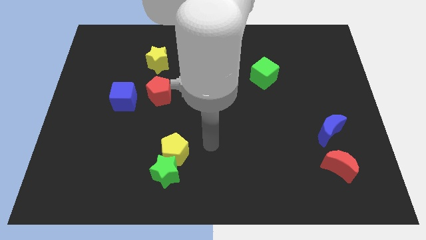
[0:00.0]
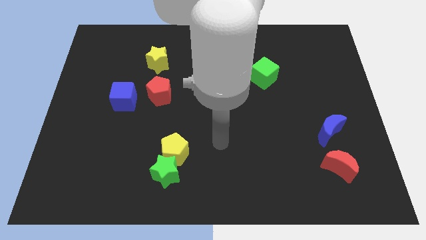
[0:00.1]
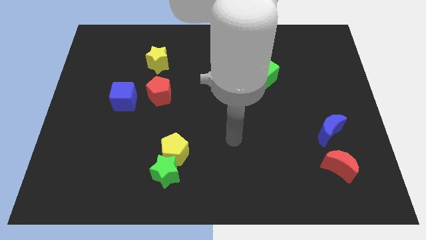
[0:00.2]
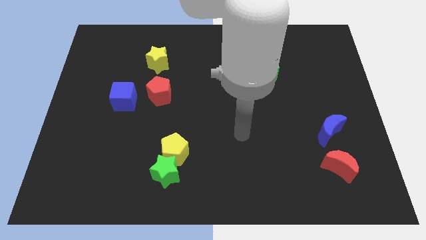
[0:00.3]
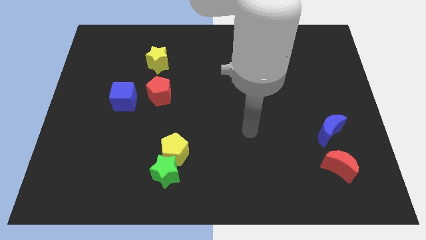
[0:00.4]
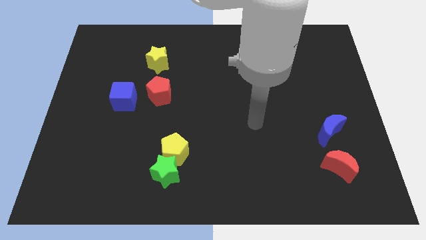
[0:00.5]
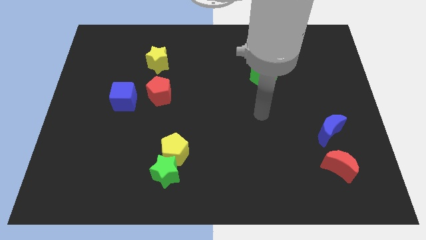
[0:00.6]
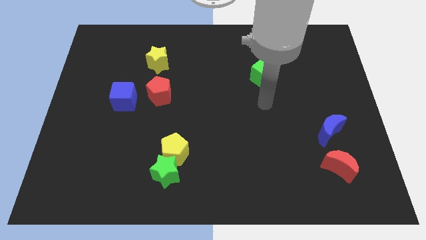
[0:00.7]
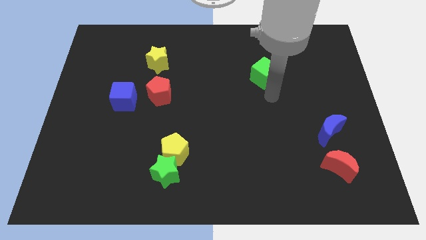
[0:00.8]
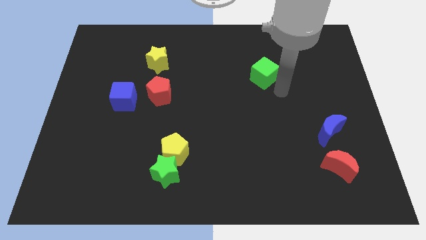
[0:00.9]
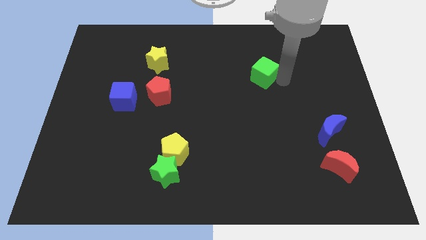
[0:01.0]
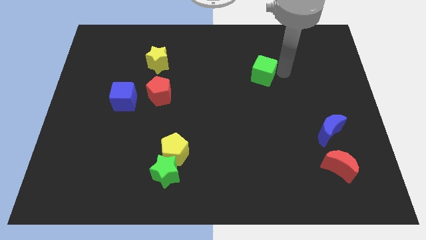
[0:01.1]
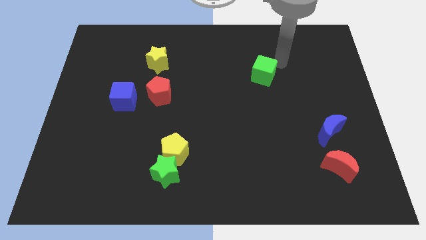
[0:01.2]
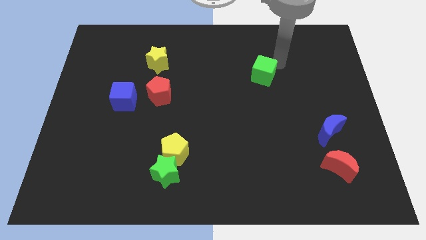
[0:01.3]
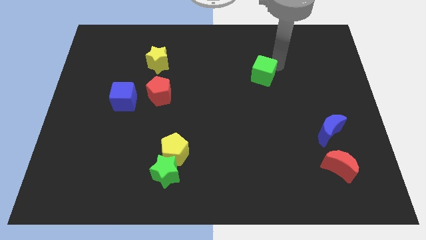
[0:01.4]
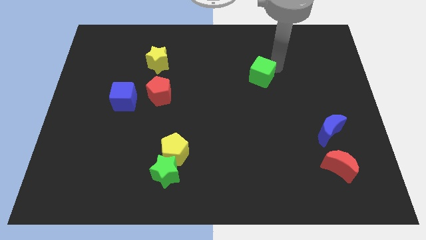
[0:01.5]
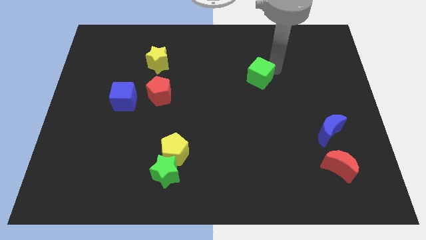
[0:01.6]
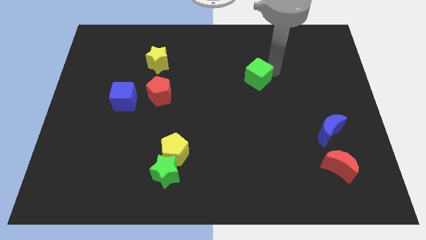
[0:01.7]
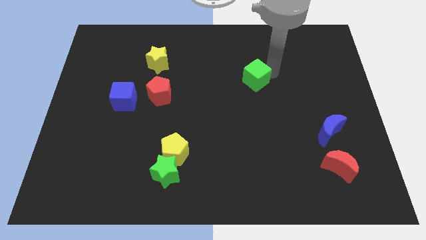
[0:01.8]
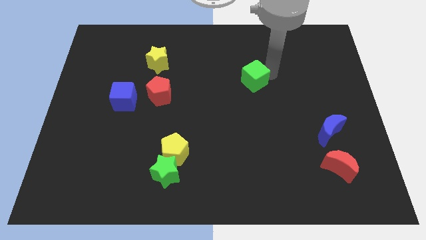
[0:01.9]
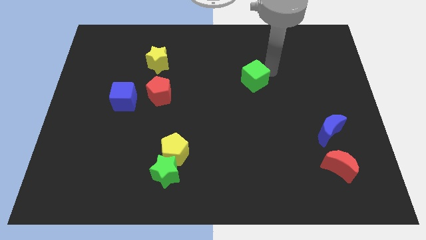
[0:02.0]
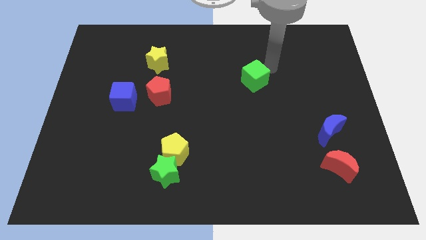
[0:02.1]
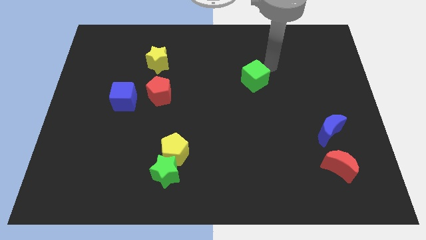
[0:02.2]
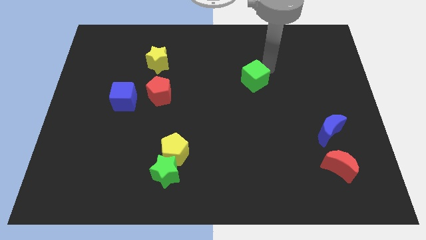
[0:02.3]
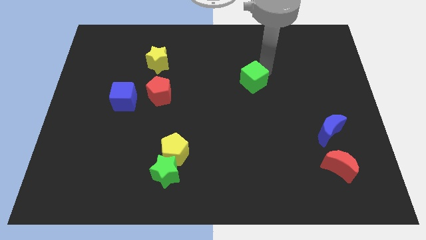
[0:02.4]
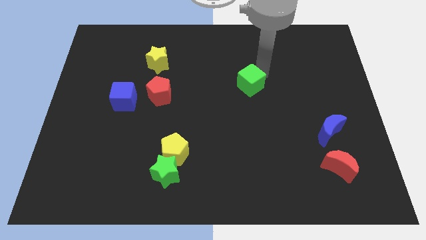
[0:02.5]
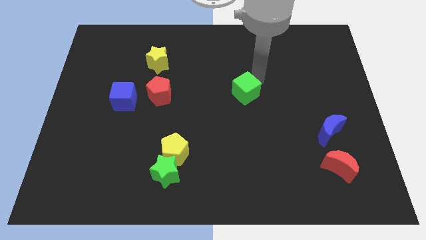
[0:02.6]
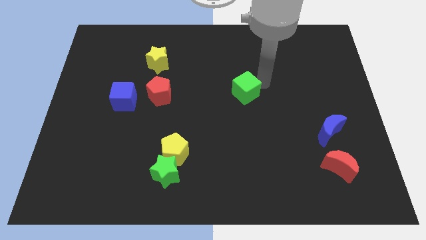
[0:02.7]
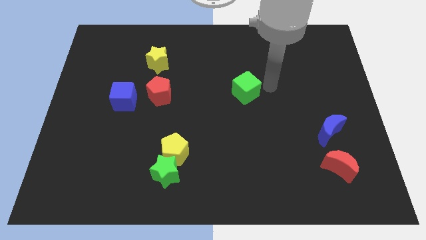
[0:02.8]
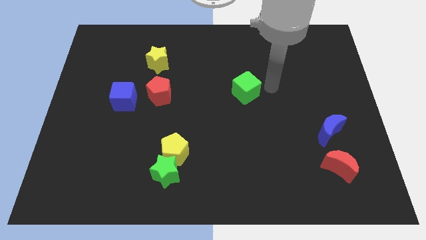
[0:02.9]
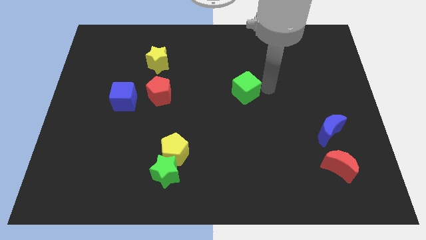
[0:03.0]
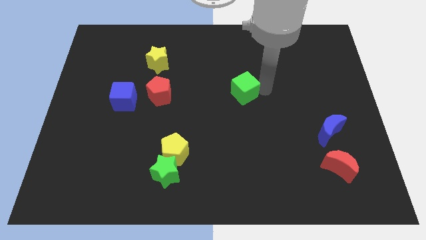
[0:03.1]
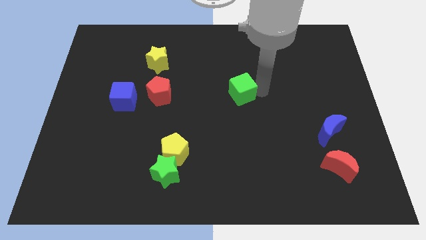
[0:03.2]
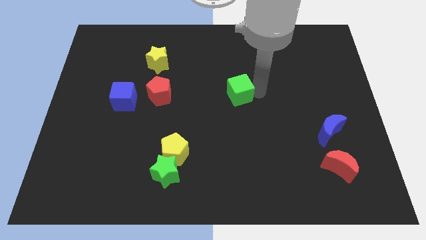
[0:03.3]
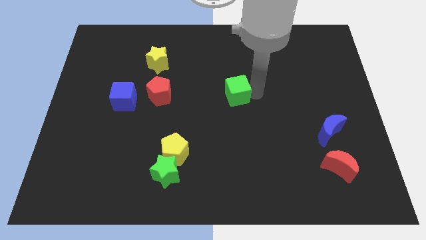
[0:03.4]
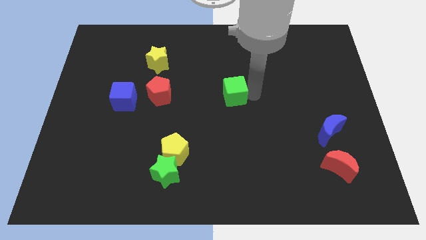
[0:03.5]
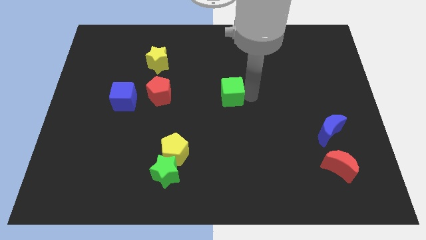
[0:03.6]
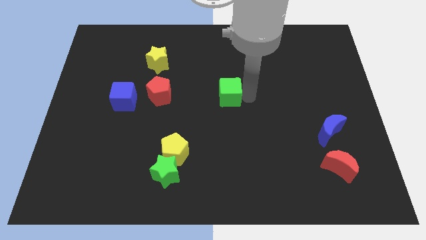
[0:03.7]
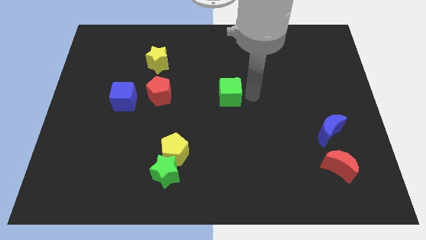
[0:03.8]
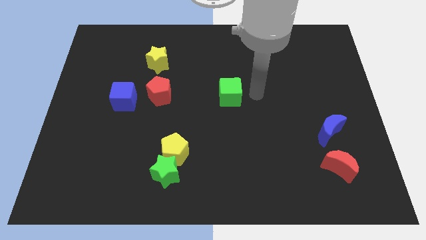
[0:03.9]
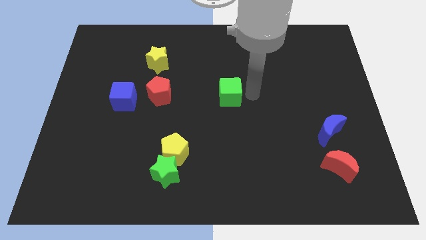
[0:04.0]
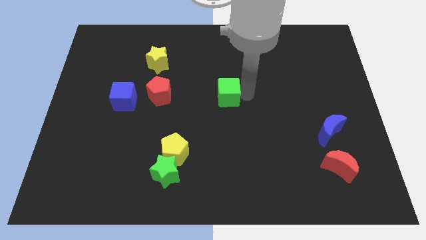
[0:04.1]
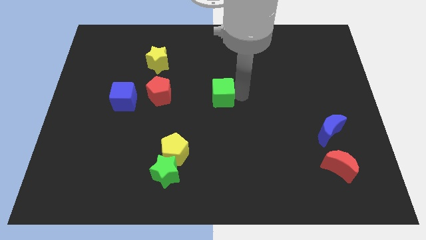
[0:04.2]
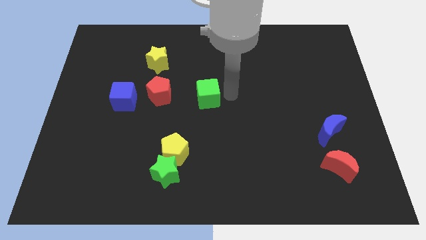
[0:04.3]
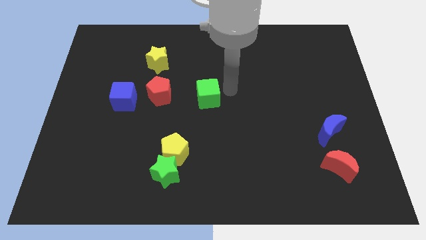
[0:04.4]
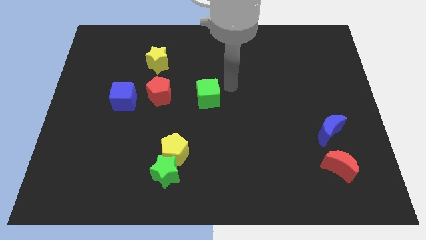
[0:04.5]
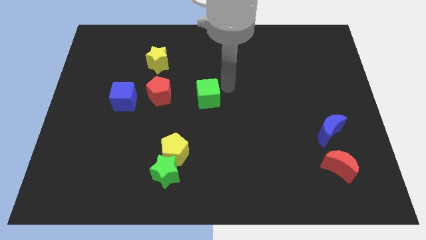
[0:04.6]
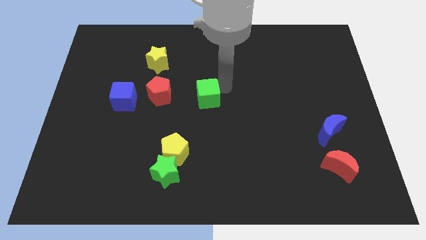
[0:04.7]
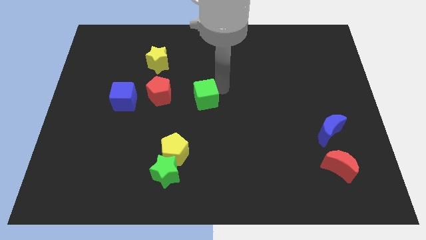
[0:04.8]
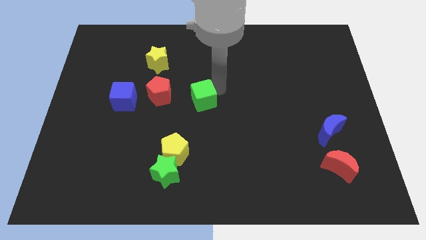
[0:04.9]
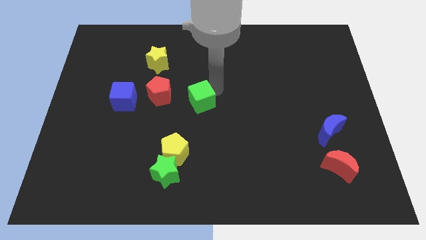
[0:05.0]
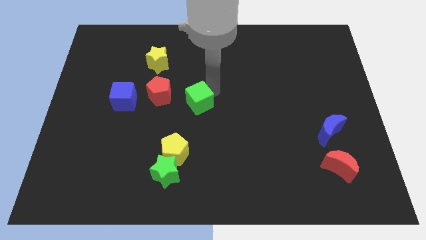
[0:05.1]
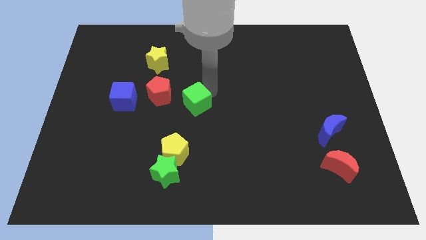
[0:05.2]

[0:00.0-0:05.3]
put the green cube diagonally down and to the right of the red pentagon

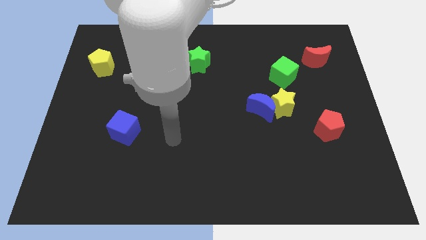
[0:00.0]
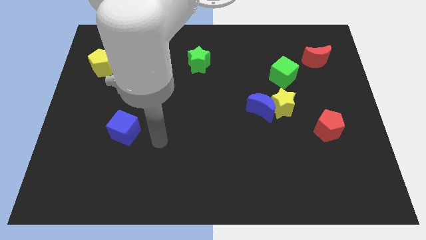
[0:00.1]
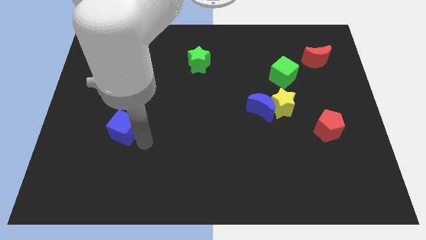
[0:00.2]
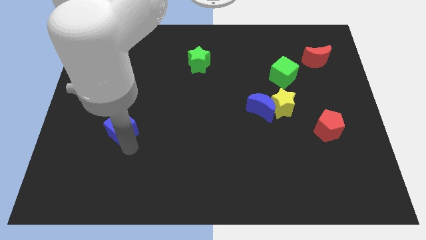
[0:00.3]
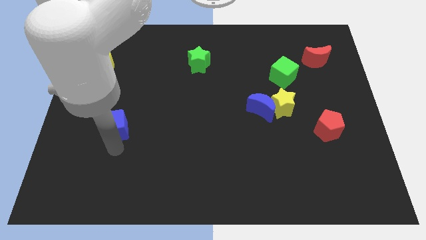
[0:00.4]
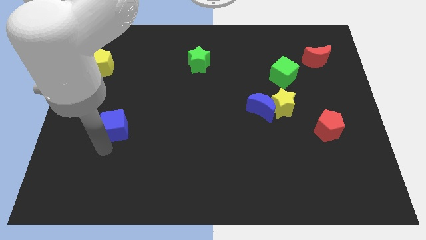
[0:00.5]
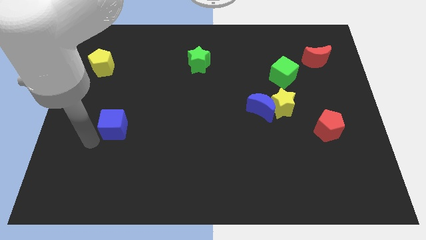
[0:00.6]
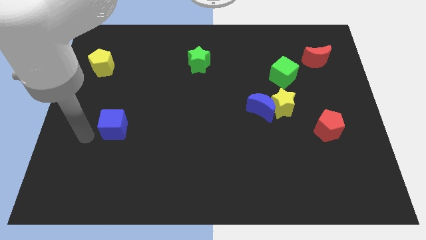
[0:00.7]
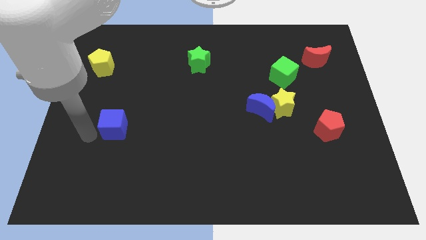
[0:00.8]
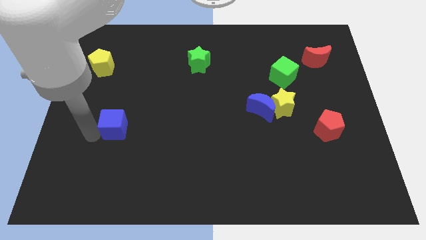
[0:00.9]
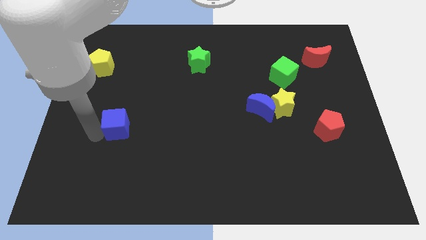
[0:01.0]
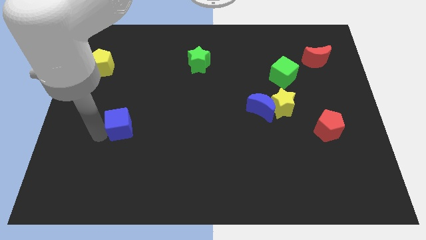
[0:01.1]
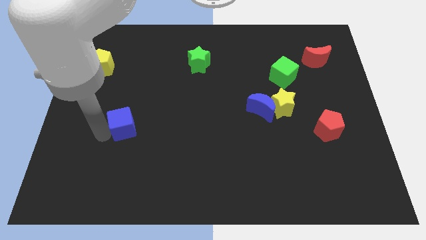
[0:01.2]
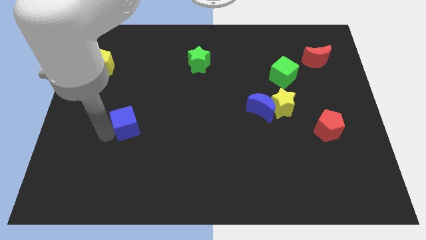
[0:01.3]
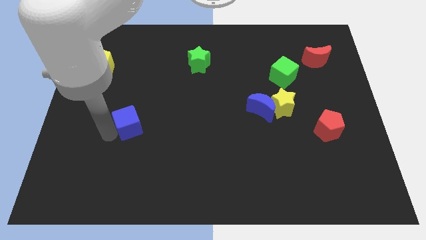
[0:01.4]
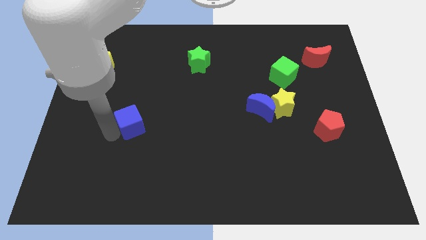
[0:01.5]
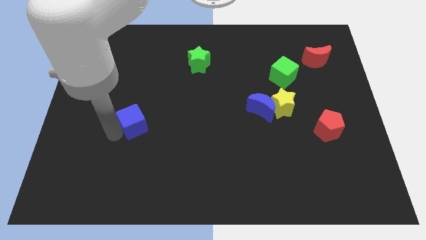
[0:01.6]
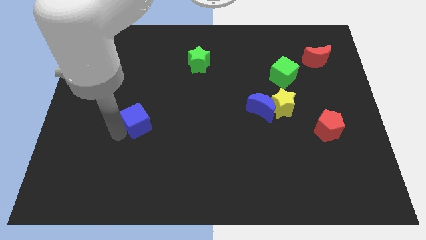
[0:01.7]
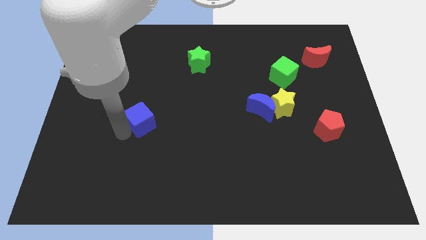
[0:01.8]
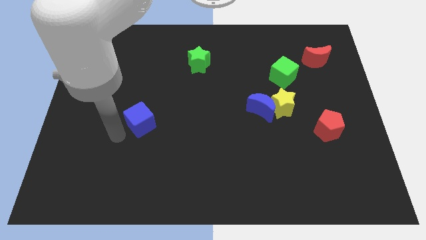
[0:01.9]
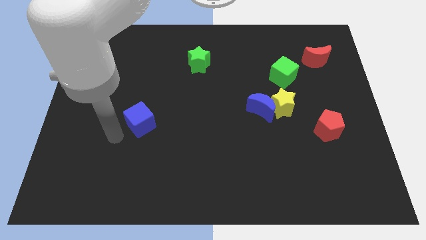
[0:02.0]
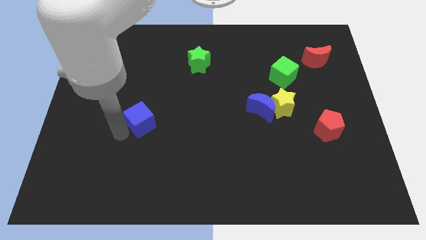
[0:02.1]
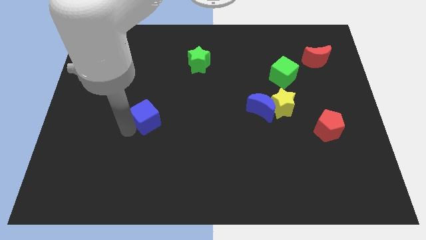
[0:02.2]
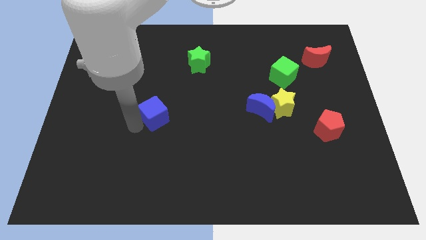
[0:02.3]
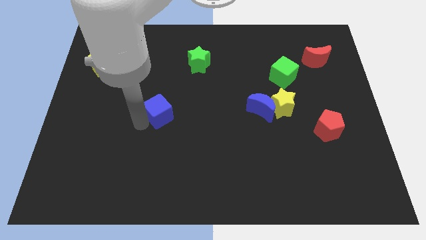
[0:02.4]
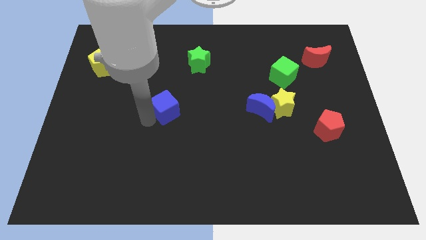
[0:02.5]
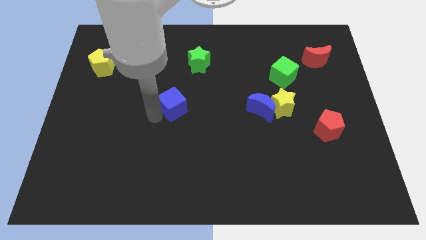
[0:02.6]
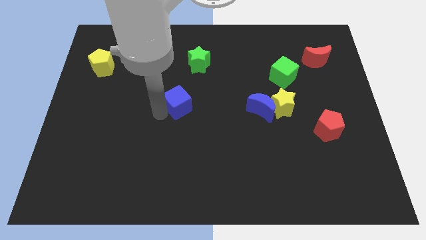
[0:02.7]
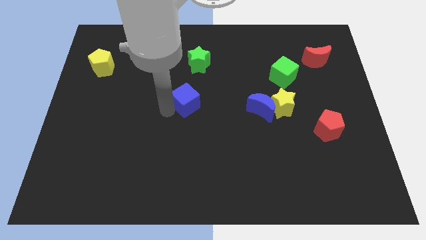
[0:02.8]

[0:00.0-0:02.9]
slide the blue cube below the green star
